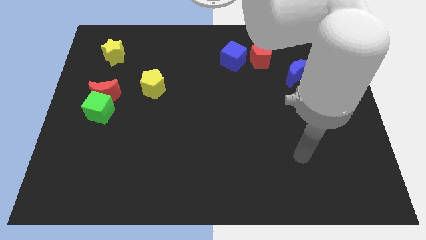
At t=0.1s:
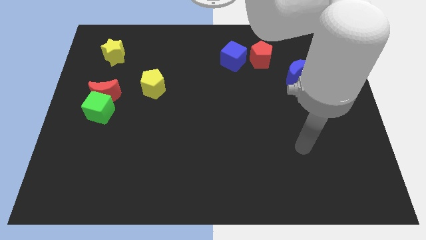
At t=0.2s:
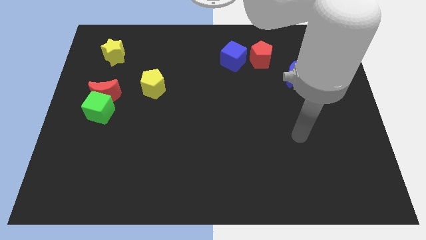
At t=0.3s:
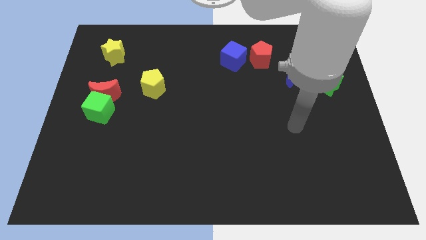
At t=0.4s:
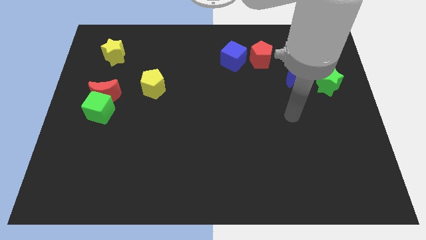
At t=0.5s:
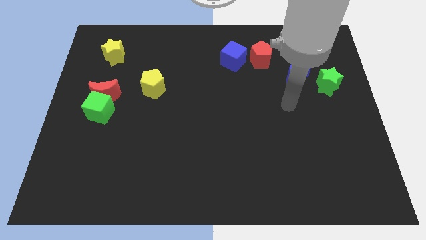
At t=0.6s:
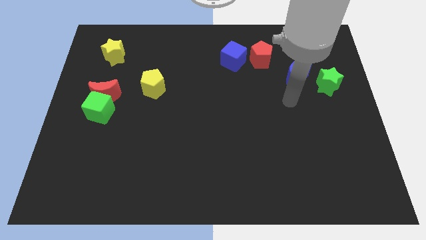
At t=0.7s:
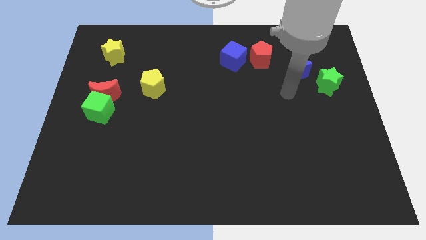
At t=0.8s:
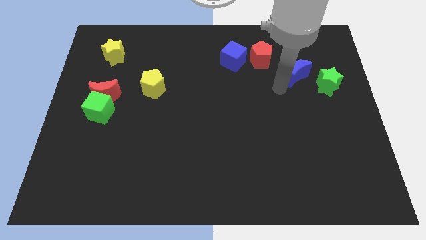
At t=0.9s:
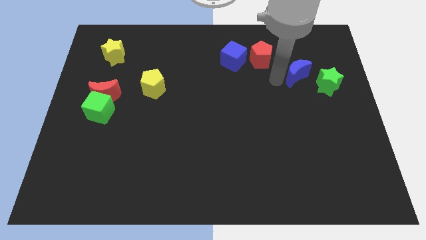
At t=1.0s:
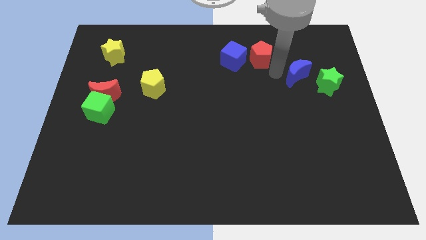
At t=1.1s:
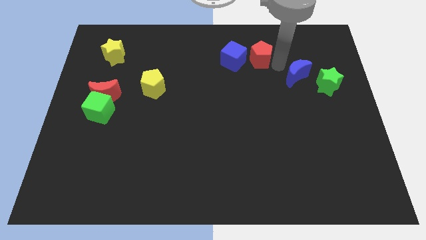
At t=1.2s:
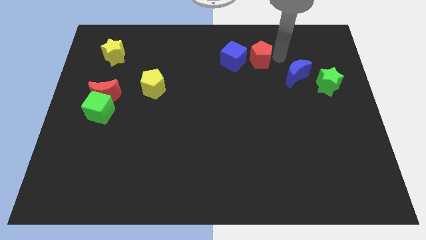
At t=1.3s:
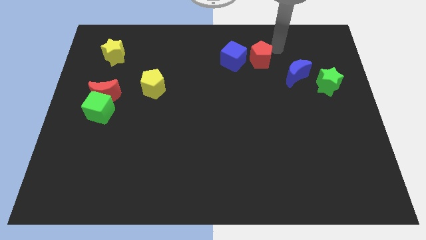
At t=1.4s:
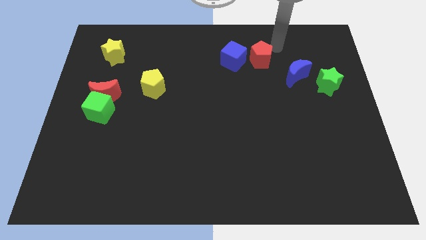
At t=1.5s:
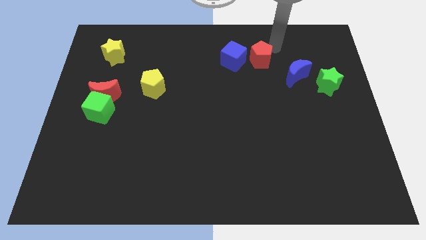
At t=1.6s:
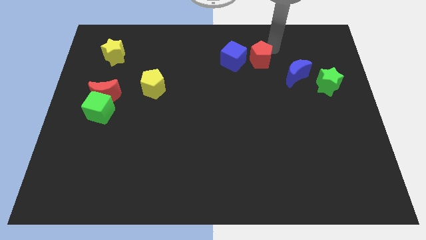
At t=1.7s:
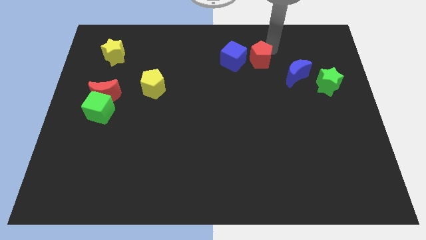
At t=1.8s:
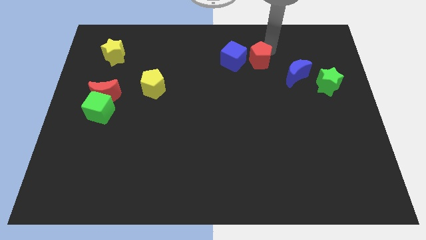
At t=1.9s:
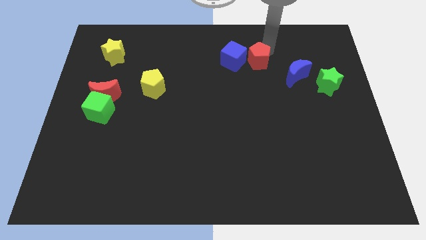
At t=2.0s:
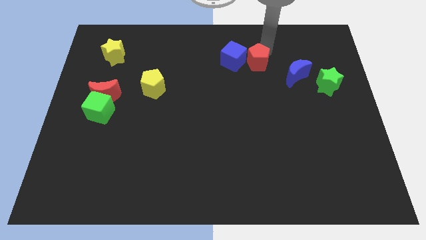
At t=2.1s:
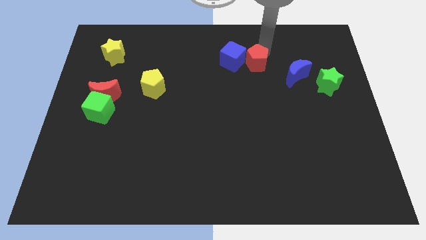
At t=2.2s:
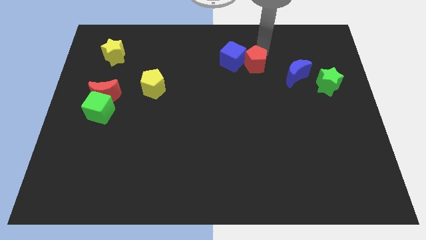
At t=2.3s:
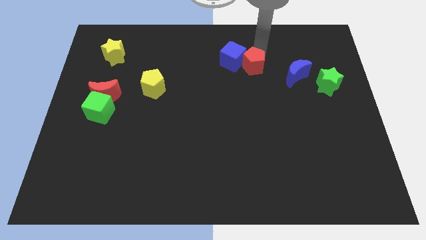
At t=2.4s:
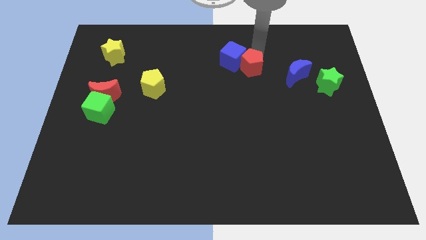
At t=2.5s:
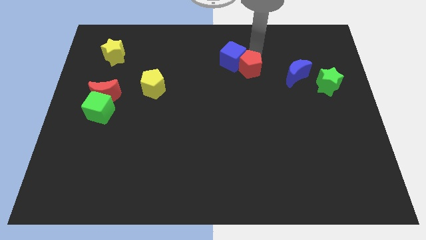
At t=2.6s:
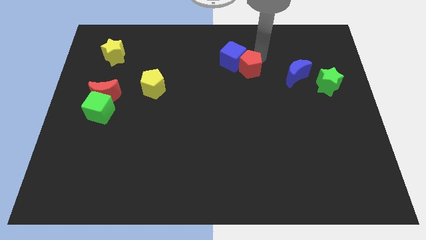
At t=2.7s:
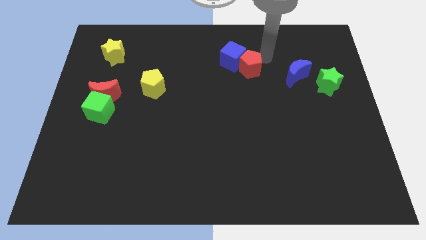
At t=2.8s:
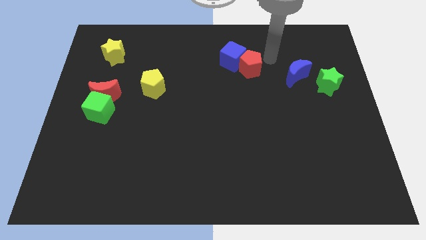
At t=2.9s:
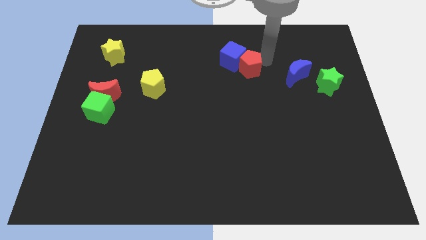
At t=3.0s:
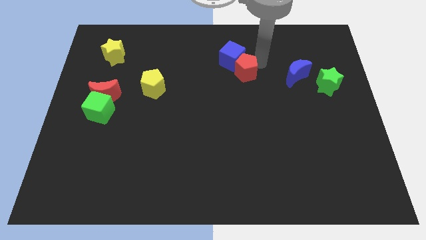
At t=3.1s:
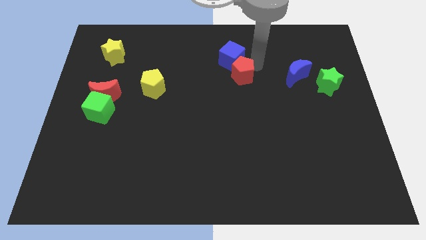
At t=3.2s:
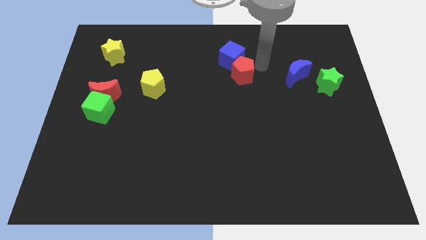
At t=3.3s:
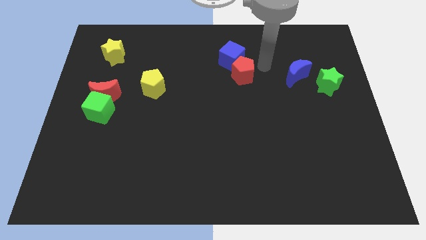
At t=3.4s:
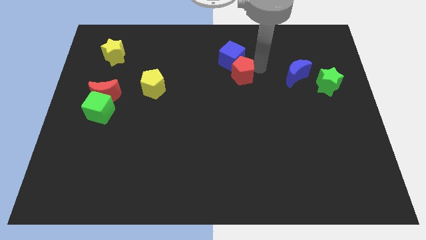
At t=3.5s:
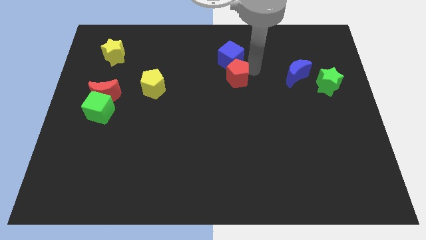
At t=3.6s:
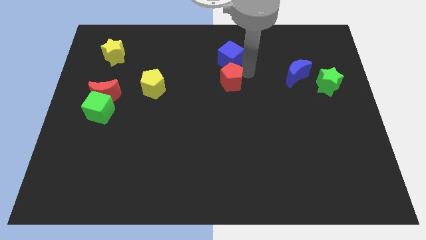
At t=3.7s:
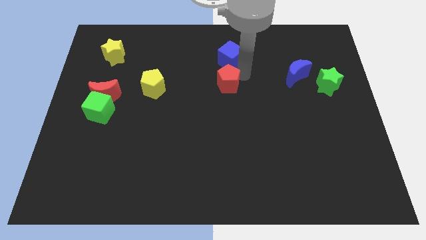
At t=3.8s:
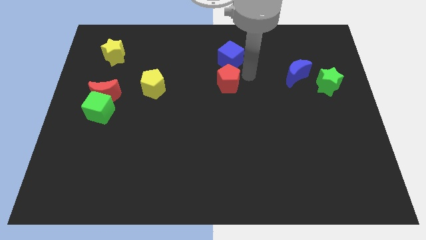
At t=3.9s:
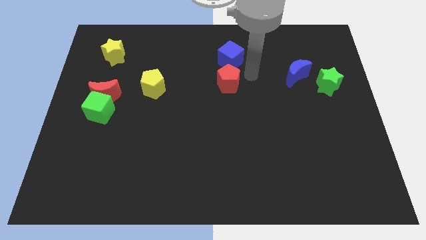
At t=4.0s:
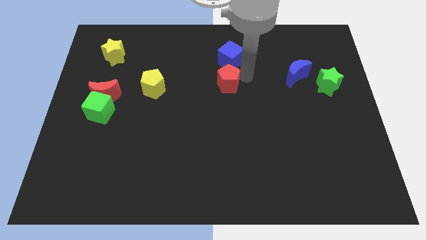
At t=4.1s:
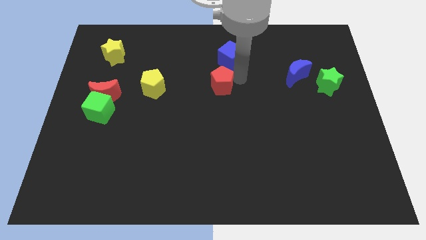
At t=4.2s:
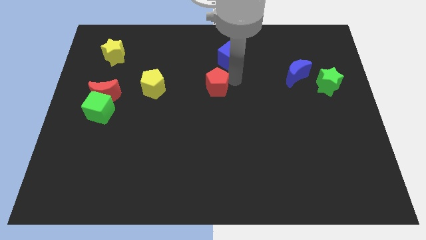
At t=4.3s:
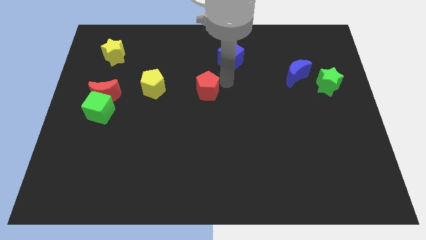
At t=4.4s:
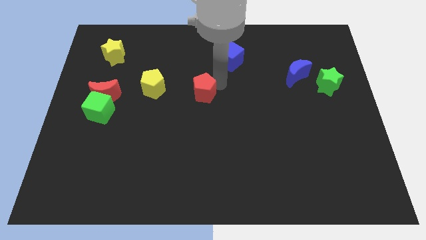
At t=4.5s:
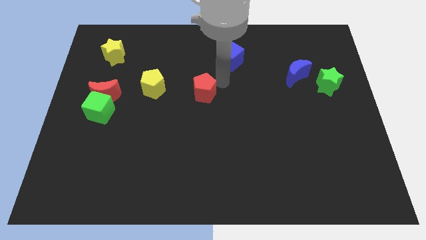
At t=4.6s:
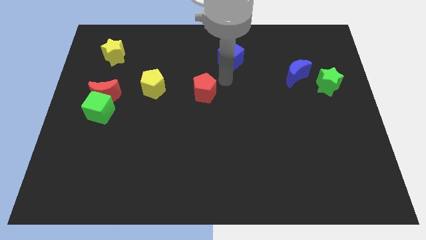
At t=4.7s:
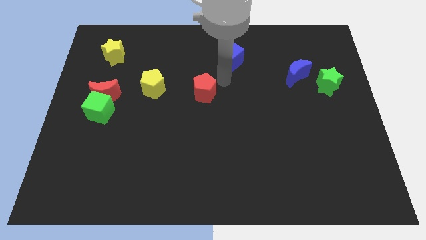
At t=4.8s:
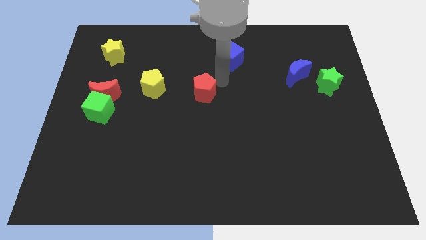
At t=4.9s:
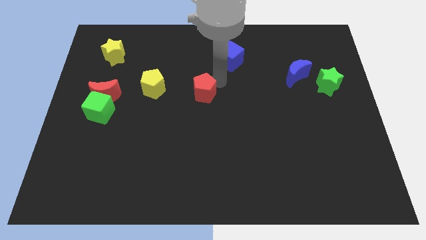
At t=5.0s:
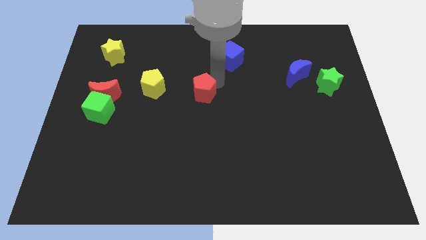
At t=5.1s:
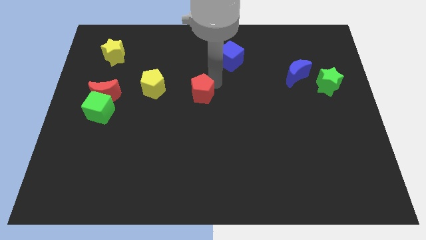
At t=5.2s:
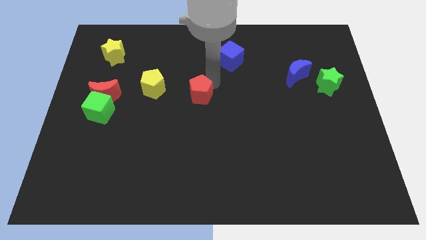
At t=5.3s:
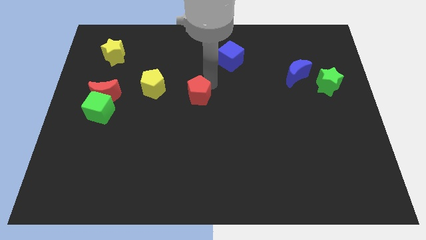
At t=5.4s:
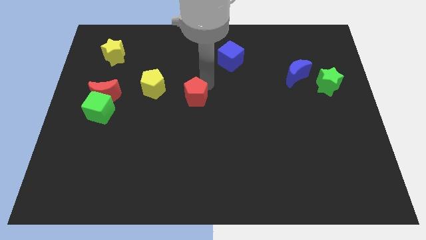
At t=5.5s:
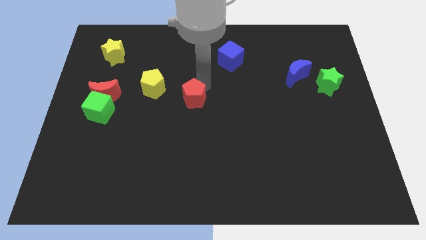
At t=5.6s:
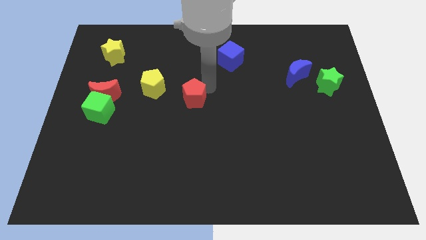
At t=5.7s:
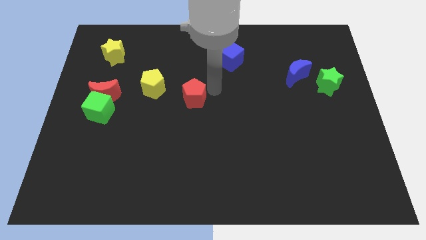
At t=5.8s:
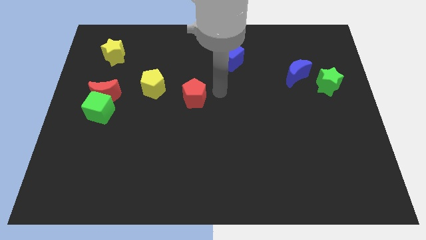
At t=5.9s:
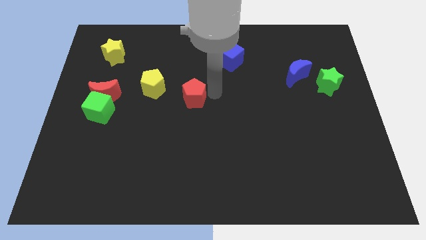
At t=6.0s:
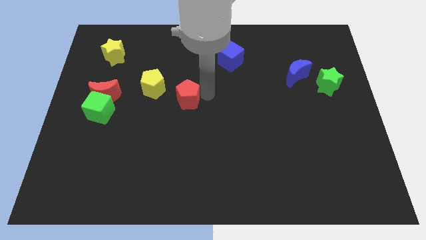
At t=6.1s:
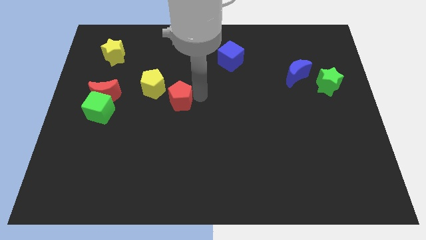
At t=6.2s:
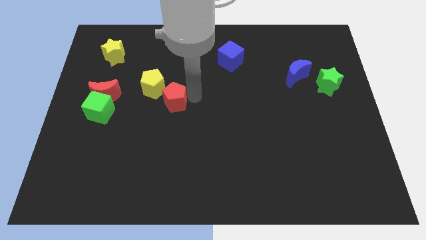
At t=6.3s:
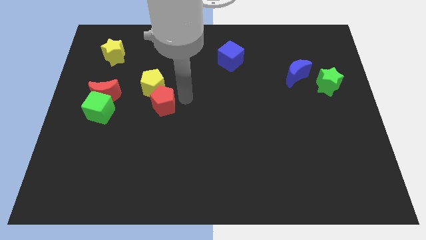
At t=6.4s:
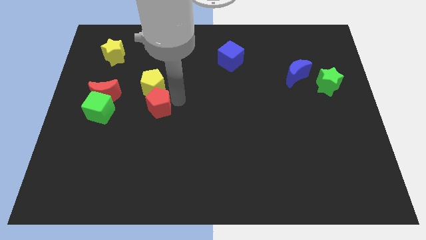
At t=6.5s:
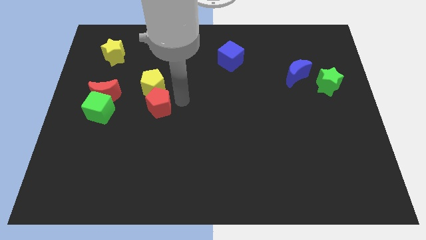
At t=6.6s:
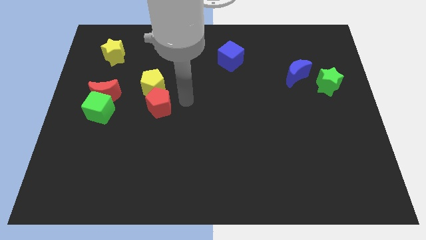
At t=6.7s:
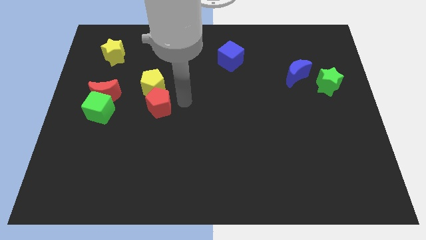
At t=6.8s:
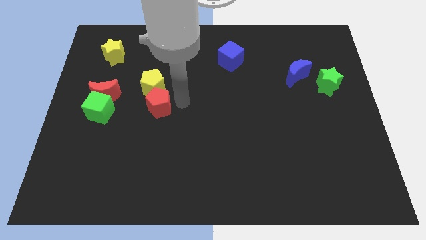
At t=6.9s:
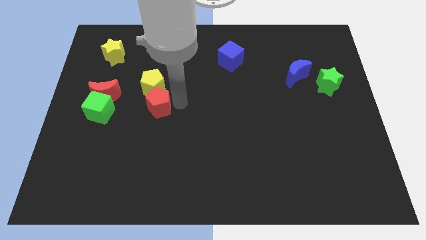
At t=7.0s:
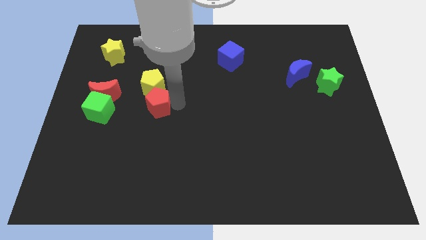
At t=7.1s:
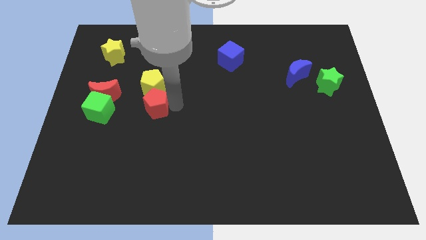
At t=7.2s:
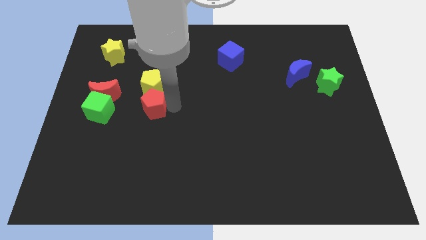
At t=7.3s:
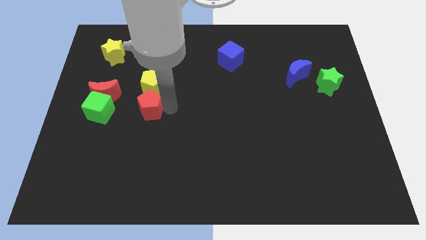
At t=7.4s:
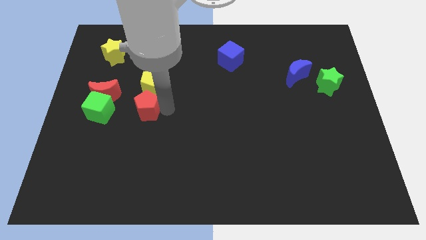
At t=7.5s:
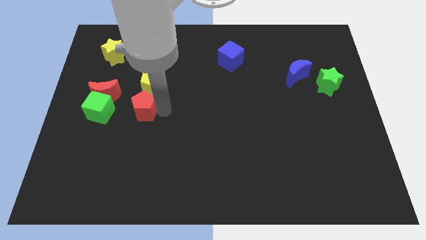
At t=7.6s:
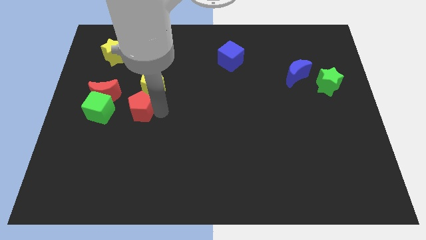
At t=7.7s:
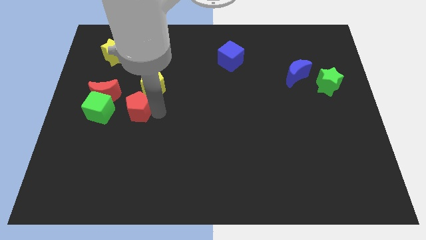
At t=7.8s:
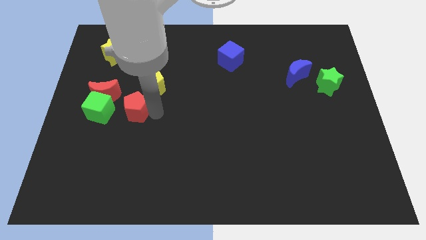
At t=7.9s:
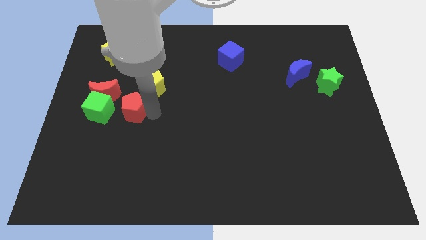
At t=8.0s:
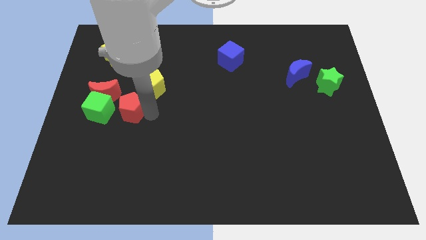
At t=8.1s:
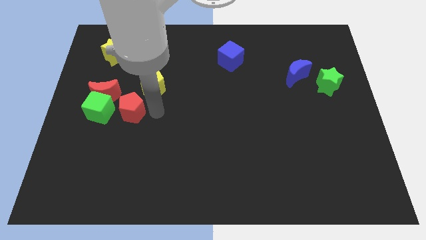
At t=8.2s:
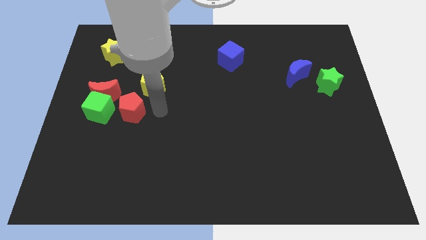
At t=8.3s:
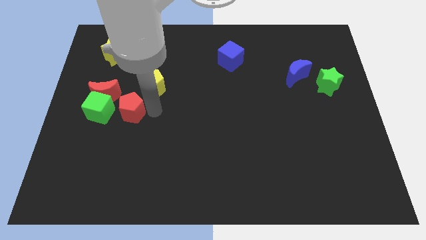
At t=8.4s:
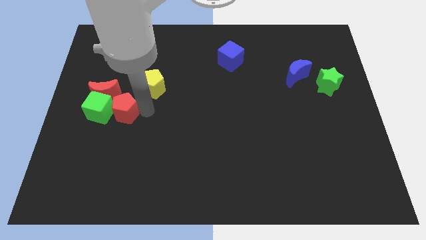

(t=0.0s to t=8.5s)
push the red pentagon close to the green cube

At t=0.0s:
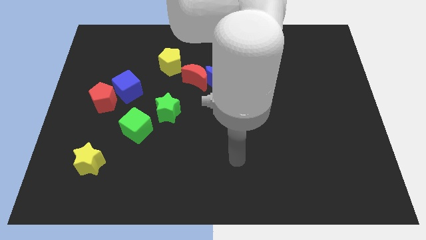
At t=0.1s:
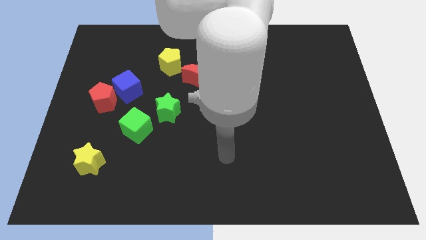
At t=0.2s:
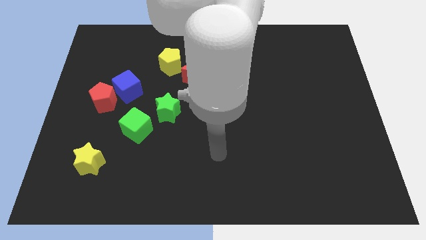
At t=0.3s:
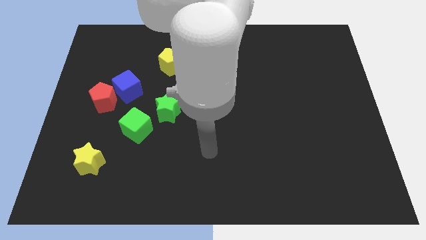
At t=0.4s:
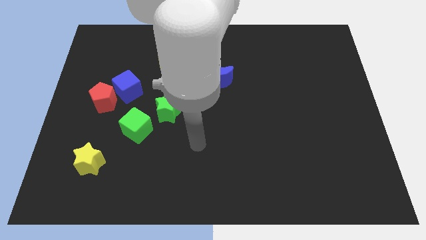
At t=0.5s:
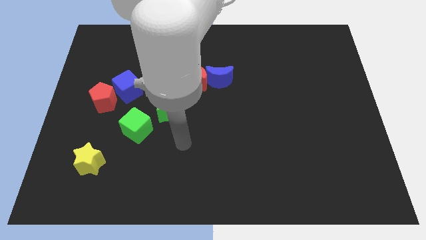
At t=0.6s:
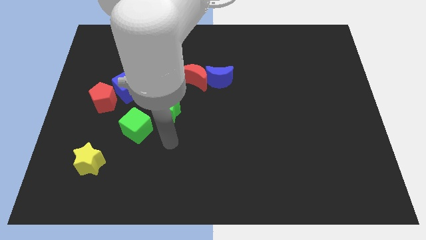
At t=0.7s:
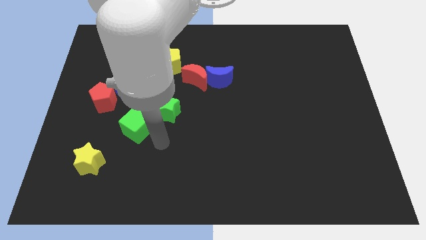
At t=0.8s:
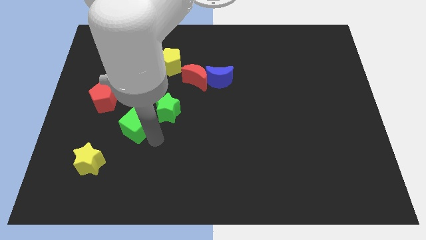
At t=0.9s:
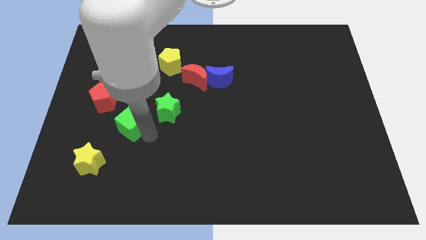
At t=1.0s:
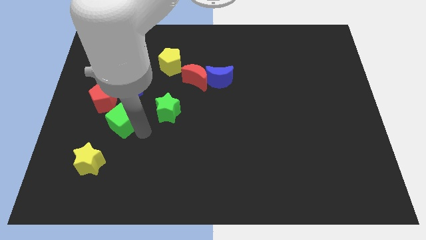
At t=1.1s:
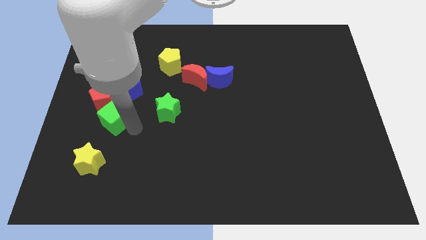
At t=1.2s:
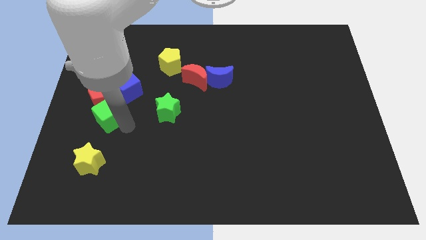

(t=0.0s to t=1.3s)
put the green cube close to the red pentagon
